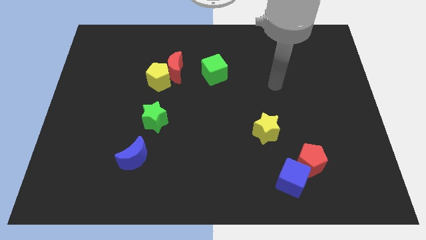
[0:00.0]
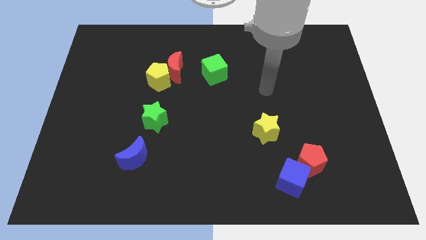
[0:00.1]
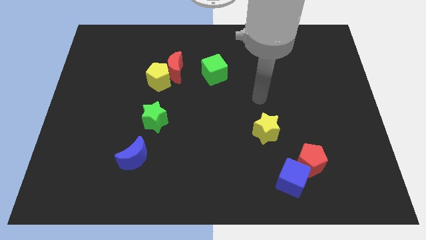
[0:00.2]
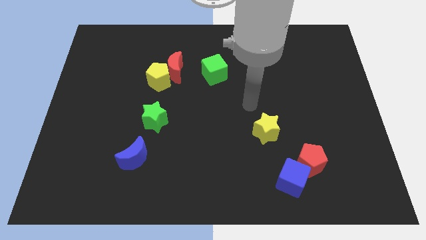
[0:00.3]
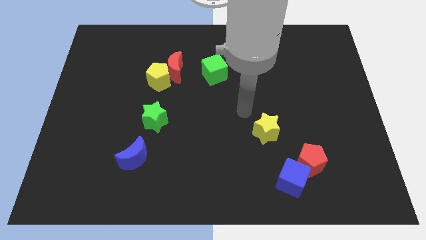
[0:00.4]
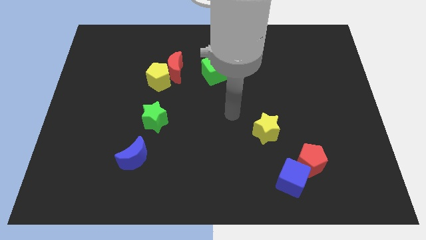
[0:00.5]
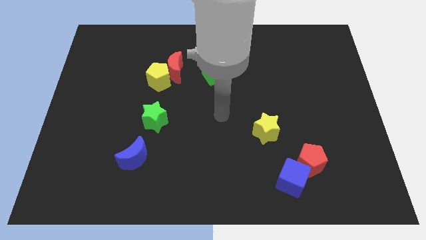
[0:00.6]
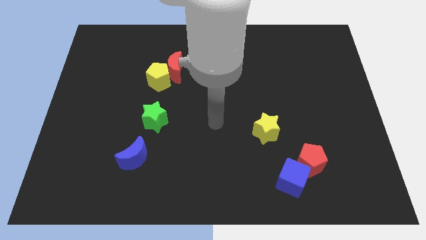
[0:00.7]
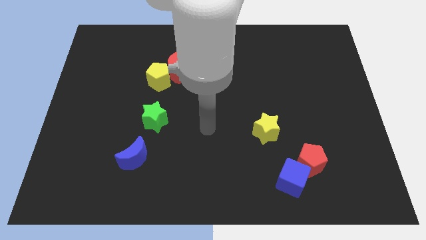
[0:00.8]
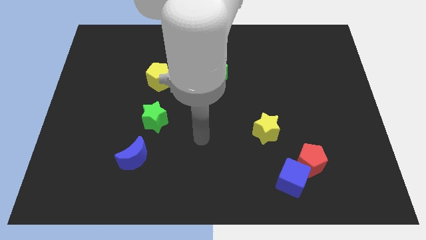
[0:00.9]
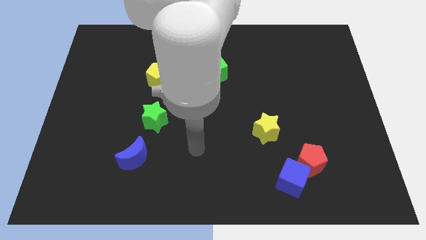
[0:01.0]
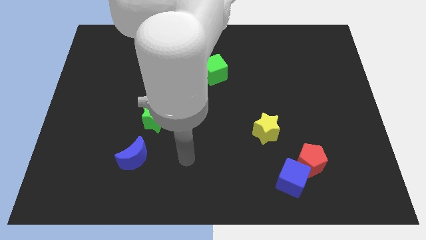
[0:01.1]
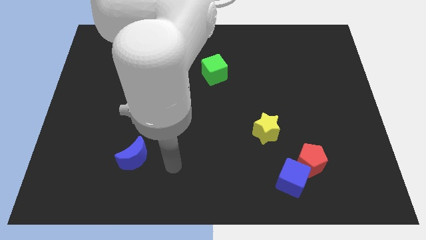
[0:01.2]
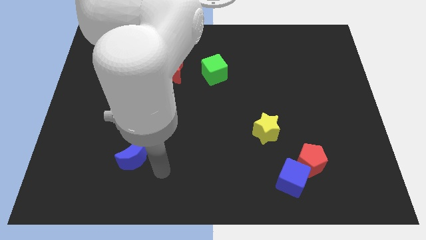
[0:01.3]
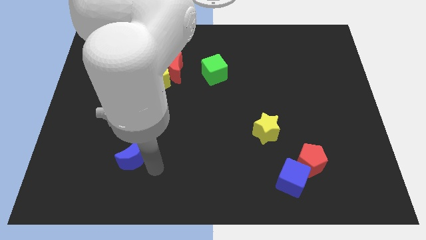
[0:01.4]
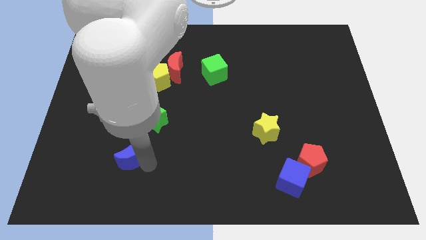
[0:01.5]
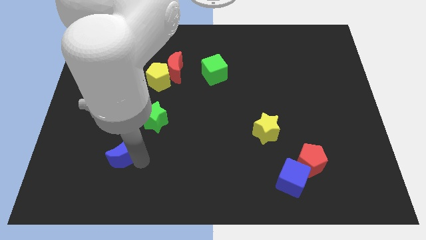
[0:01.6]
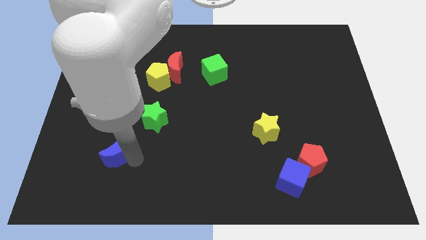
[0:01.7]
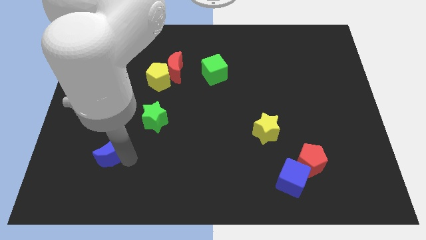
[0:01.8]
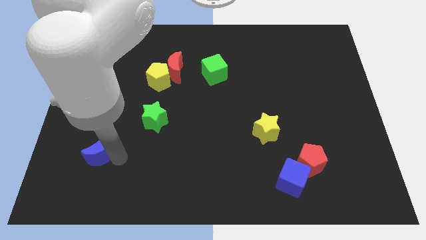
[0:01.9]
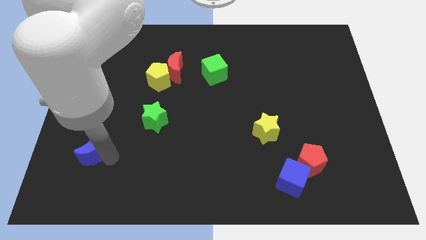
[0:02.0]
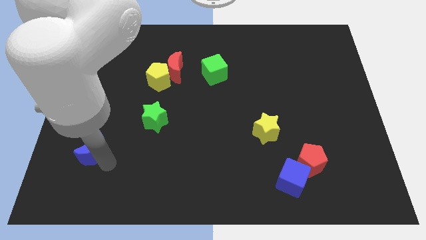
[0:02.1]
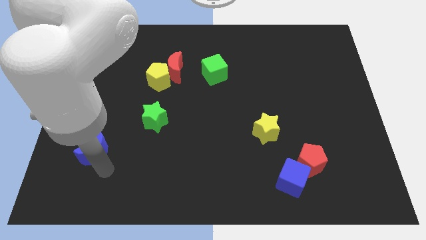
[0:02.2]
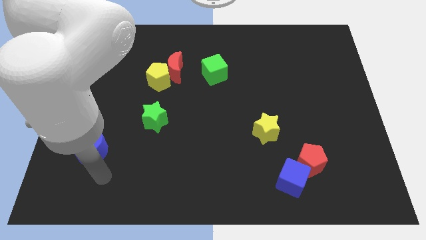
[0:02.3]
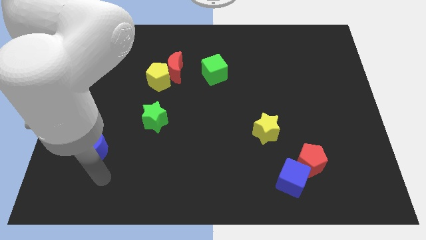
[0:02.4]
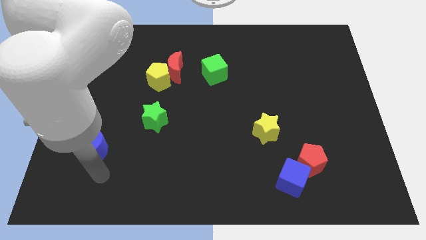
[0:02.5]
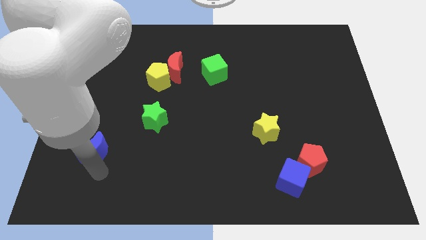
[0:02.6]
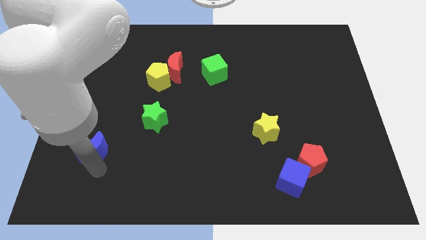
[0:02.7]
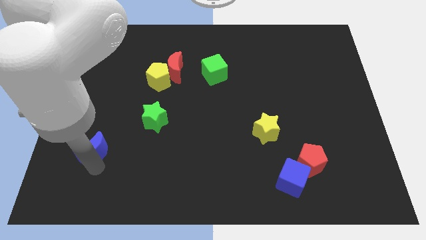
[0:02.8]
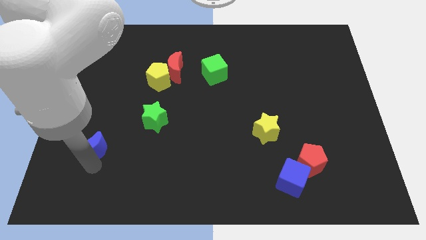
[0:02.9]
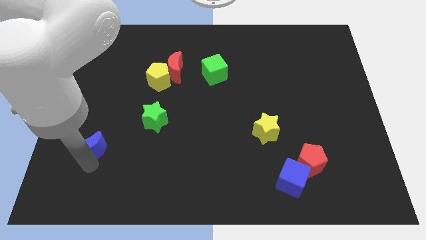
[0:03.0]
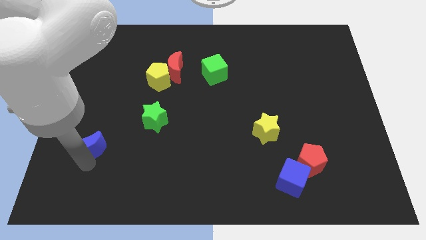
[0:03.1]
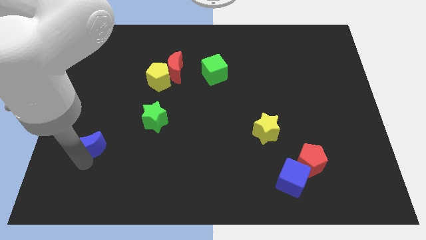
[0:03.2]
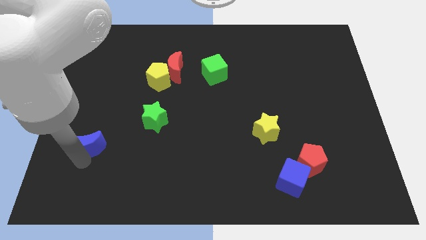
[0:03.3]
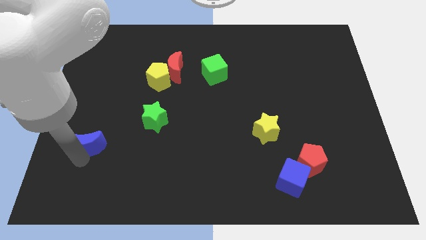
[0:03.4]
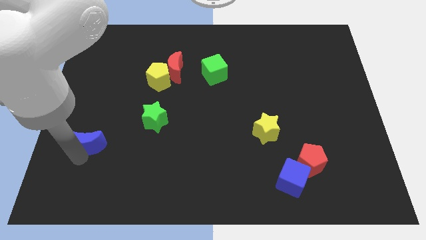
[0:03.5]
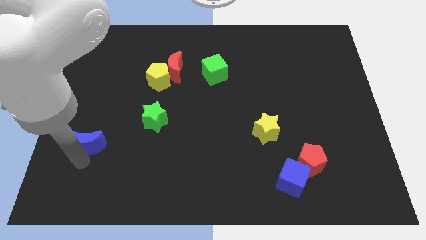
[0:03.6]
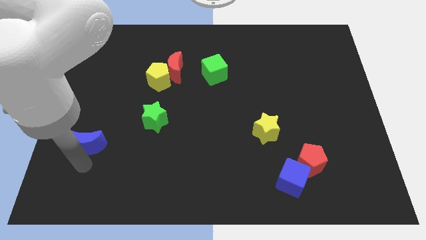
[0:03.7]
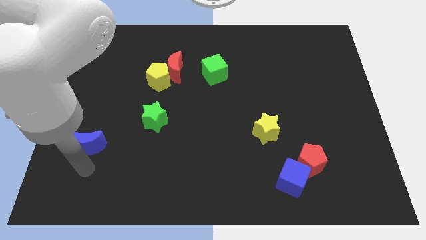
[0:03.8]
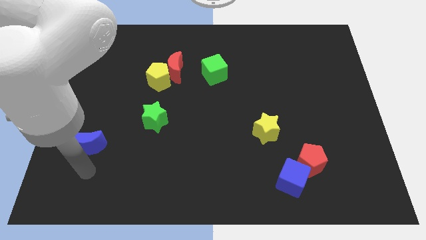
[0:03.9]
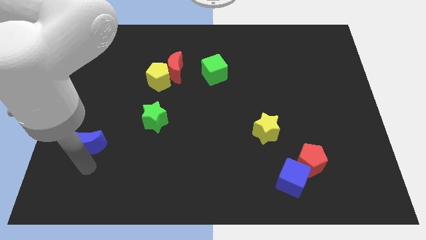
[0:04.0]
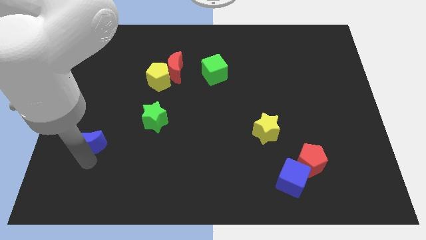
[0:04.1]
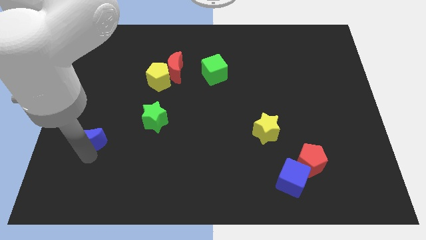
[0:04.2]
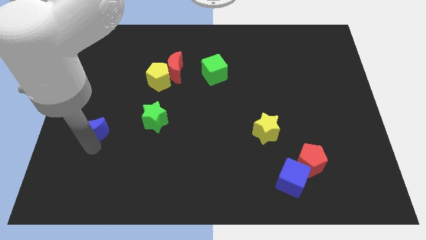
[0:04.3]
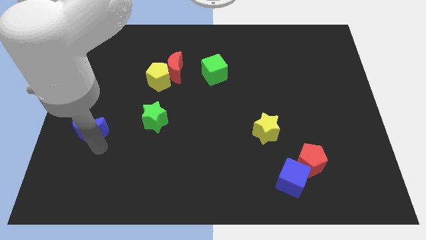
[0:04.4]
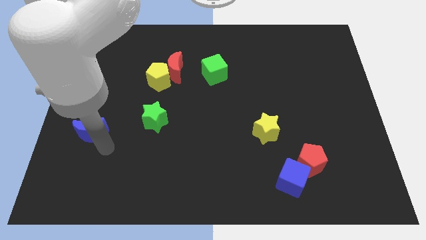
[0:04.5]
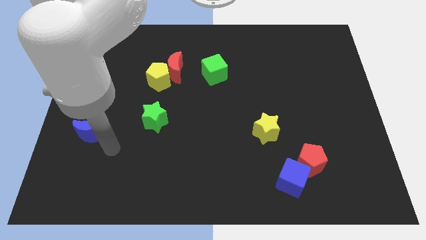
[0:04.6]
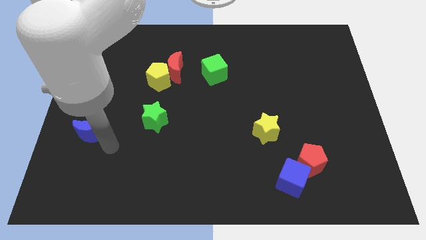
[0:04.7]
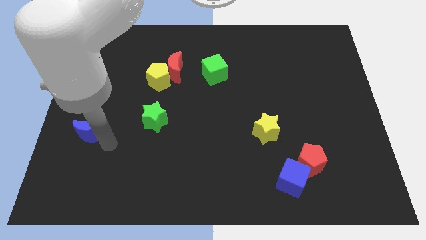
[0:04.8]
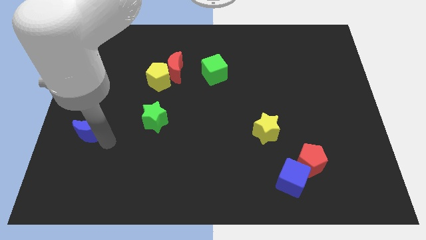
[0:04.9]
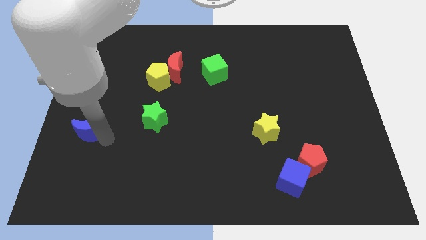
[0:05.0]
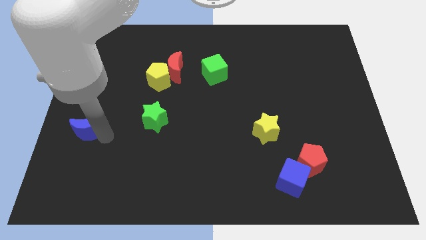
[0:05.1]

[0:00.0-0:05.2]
slide the blue moon to the center left
